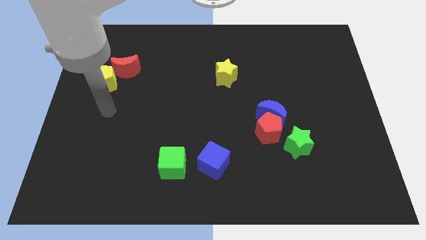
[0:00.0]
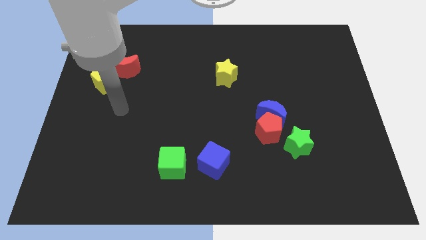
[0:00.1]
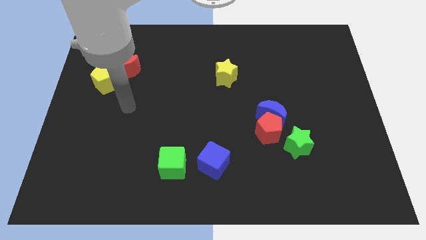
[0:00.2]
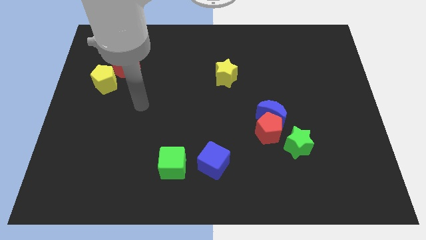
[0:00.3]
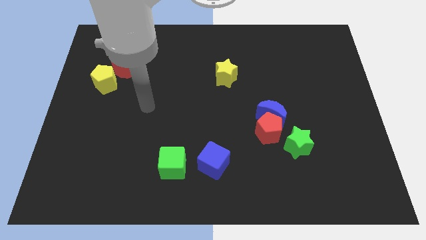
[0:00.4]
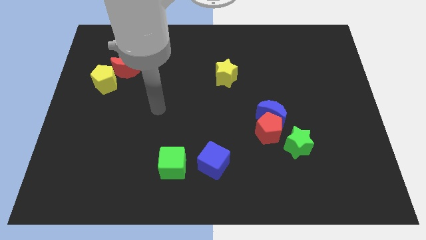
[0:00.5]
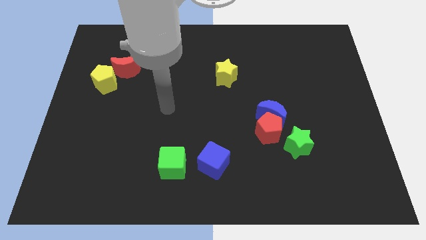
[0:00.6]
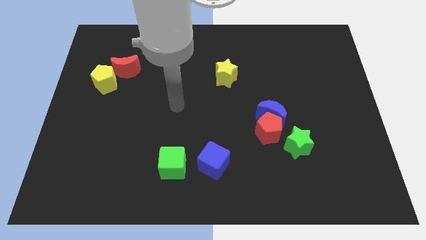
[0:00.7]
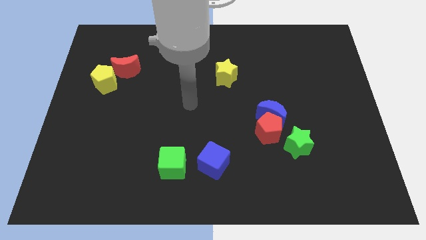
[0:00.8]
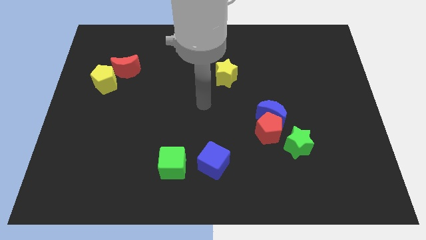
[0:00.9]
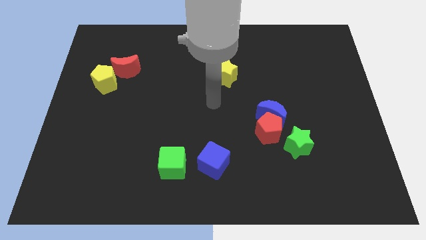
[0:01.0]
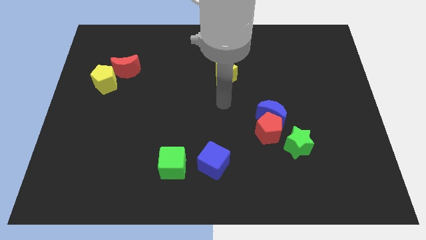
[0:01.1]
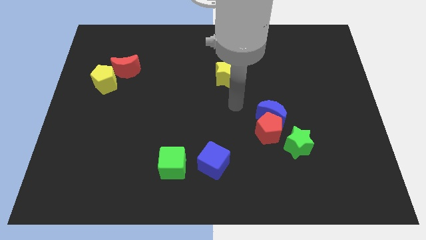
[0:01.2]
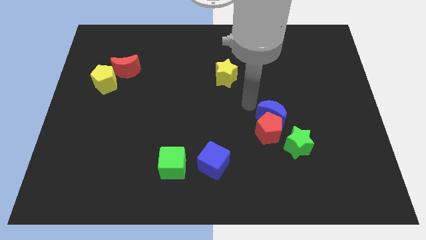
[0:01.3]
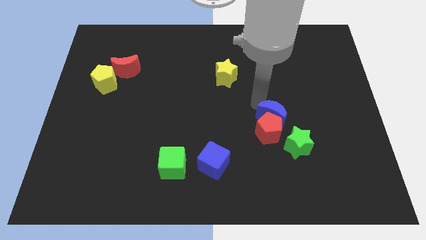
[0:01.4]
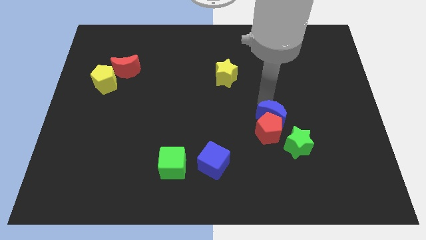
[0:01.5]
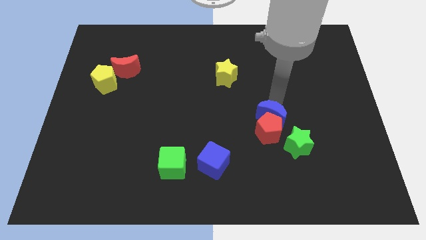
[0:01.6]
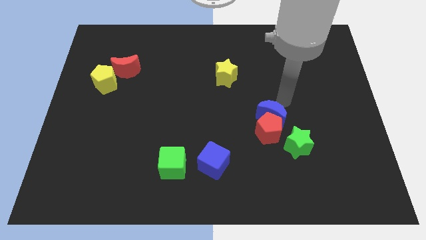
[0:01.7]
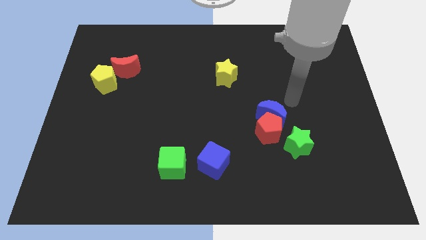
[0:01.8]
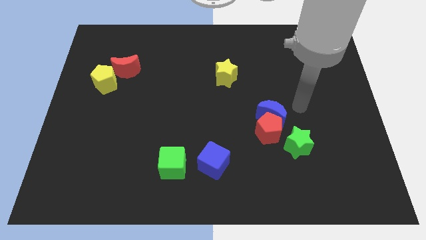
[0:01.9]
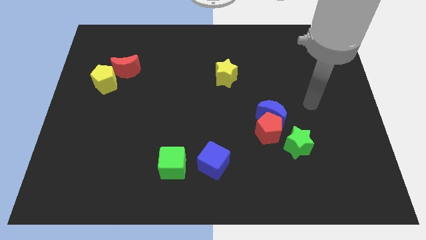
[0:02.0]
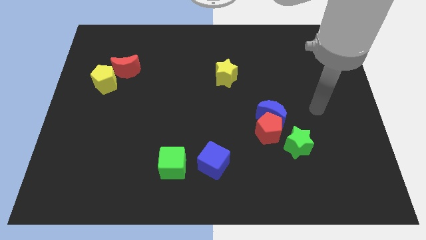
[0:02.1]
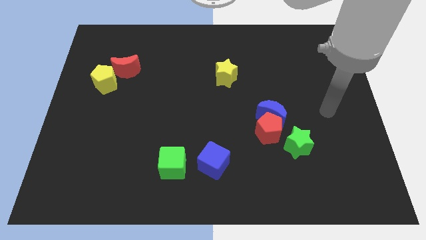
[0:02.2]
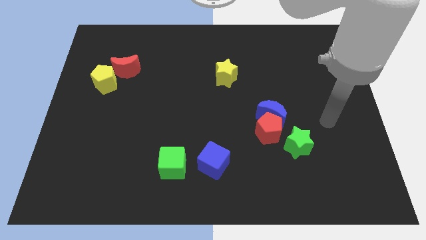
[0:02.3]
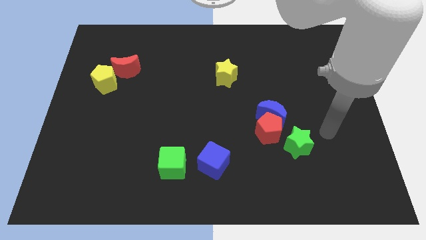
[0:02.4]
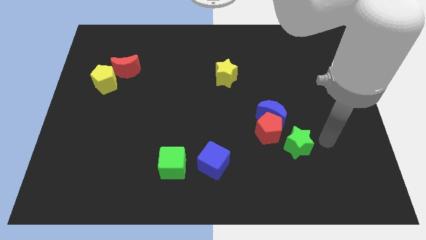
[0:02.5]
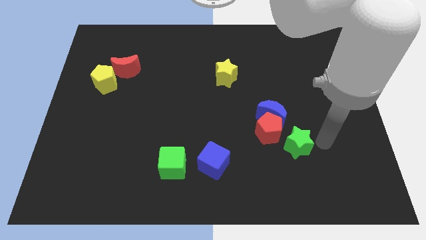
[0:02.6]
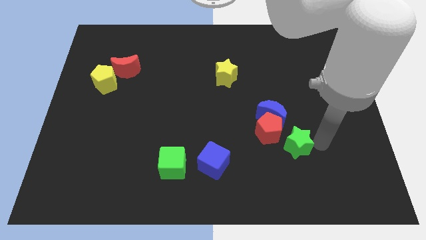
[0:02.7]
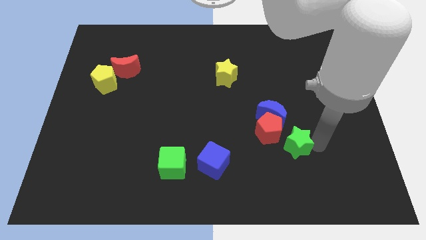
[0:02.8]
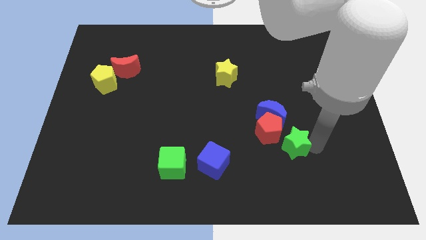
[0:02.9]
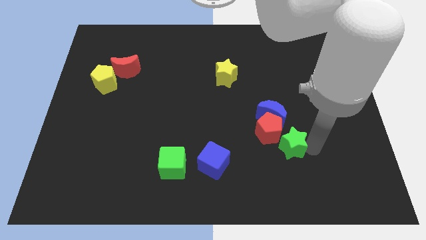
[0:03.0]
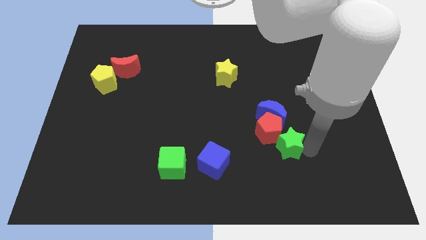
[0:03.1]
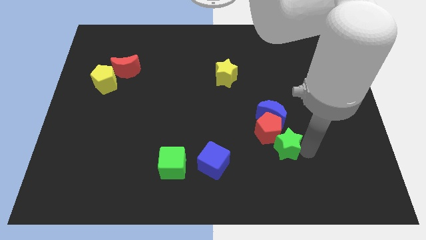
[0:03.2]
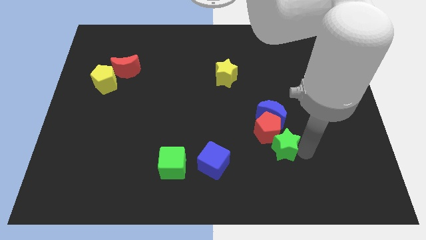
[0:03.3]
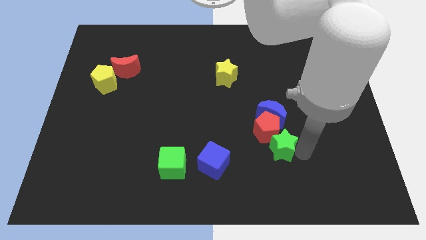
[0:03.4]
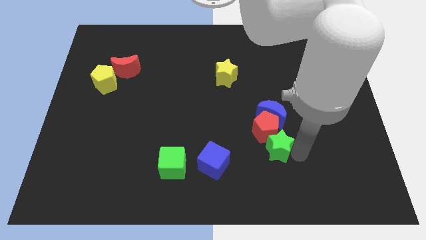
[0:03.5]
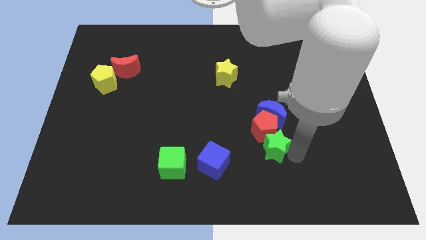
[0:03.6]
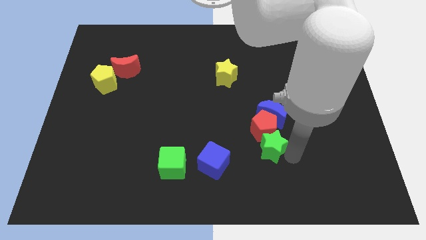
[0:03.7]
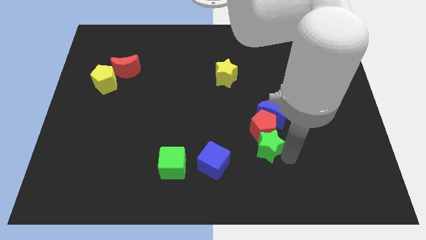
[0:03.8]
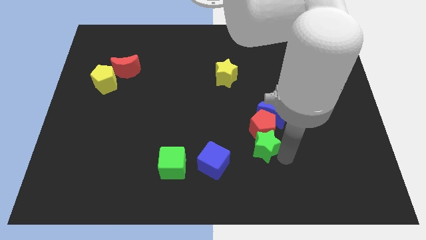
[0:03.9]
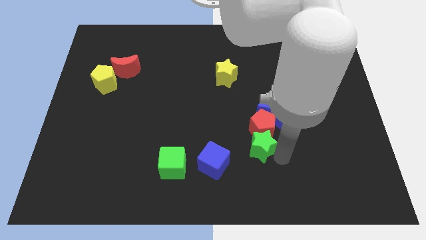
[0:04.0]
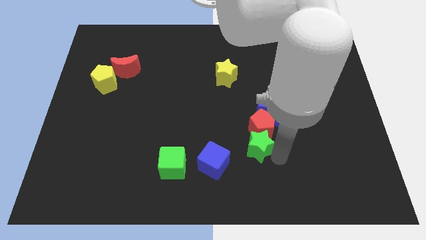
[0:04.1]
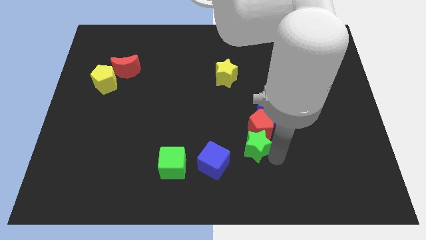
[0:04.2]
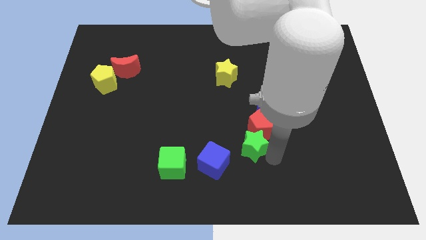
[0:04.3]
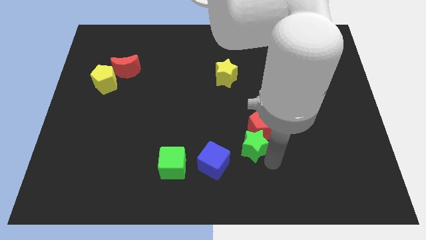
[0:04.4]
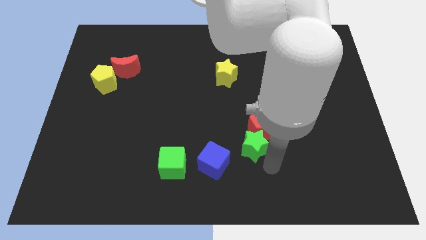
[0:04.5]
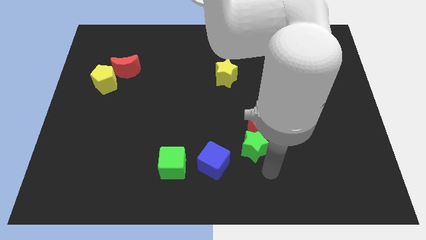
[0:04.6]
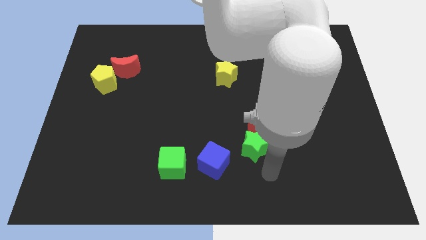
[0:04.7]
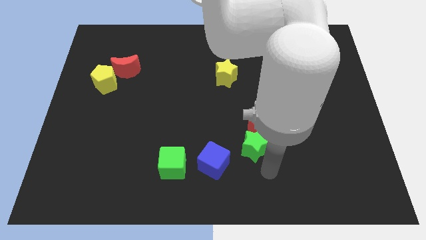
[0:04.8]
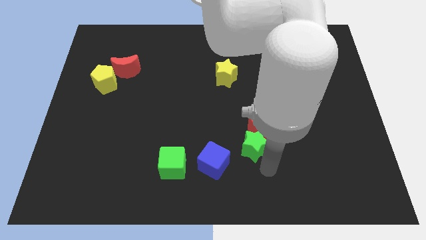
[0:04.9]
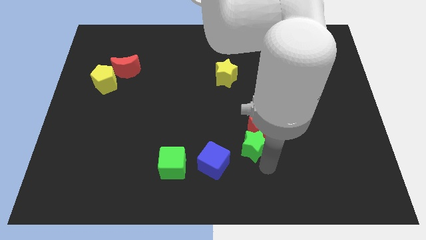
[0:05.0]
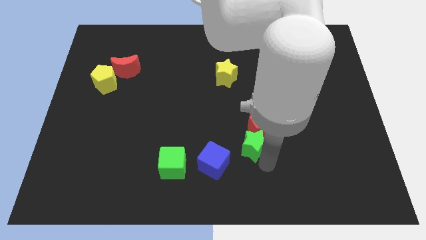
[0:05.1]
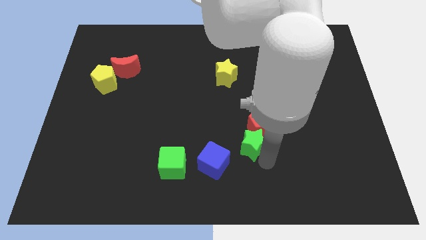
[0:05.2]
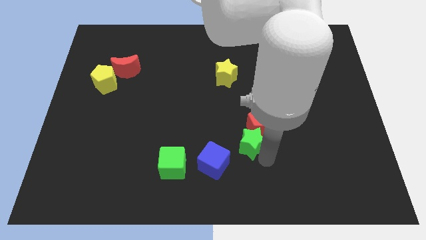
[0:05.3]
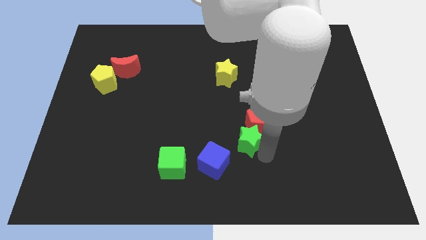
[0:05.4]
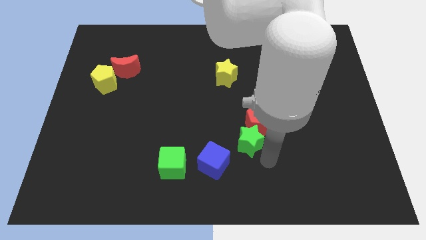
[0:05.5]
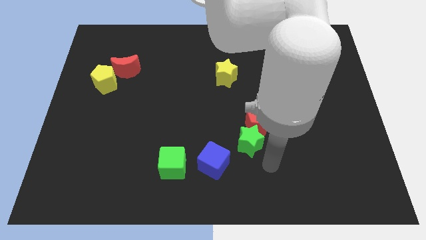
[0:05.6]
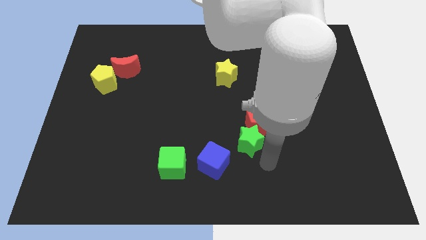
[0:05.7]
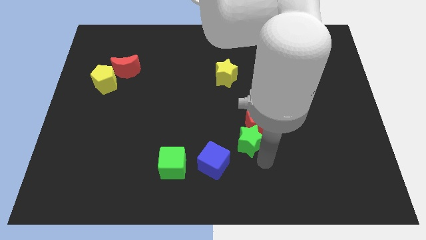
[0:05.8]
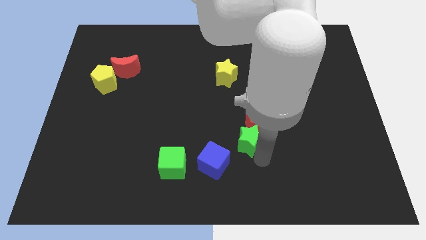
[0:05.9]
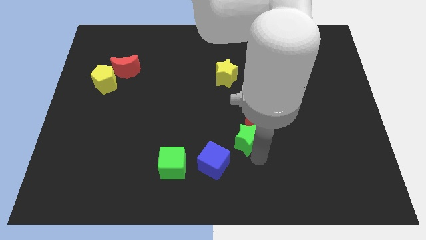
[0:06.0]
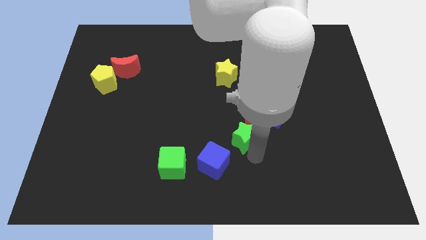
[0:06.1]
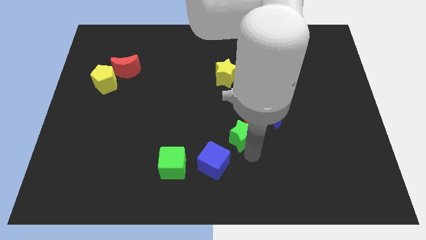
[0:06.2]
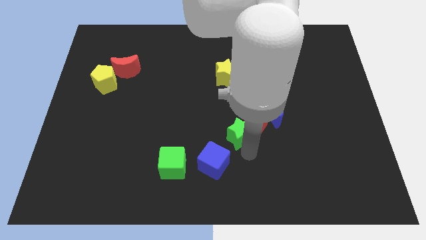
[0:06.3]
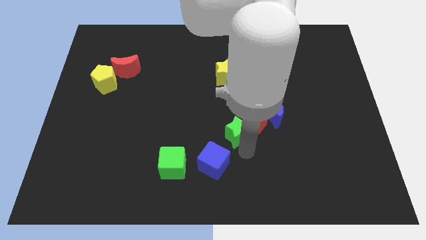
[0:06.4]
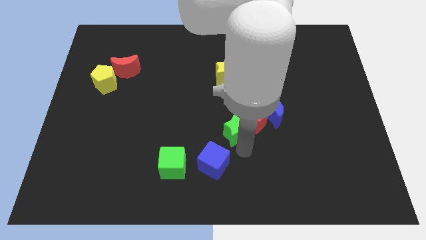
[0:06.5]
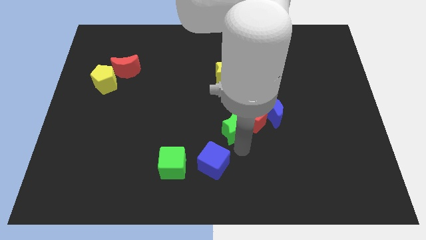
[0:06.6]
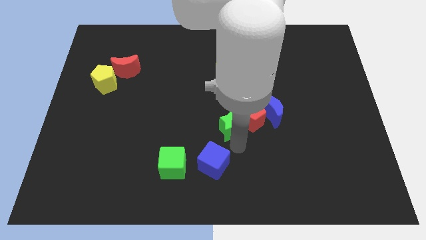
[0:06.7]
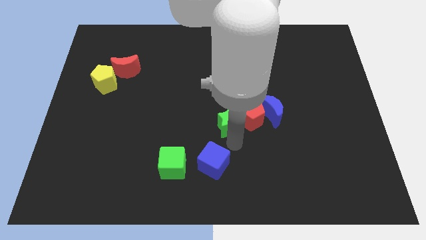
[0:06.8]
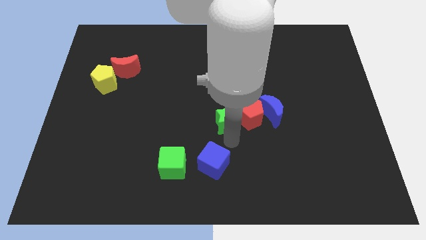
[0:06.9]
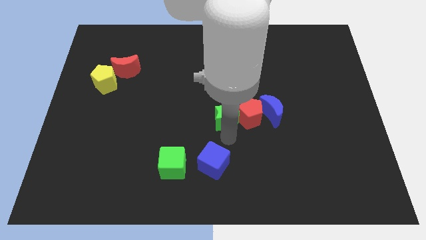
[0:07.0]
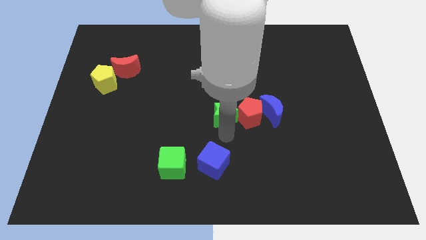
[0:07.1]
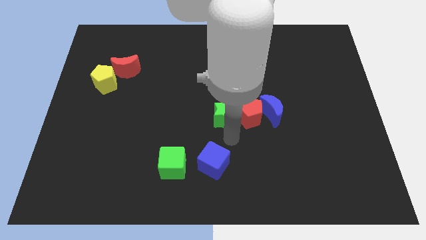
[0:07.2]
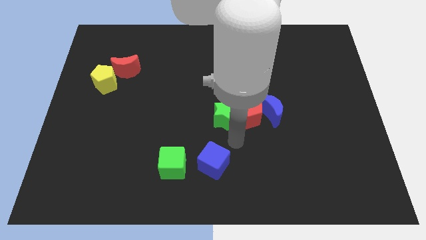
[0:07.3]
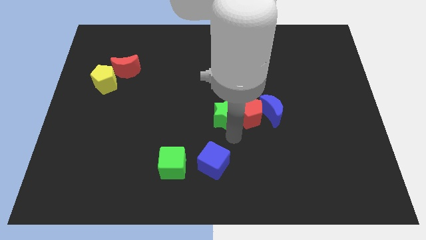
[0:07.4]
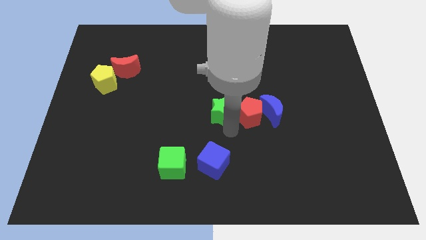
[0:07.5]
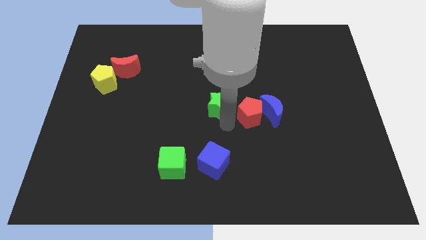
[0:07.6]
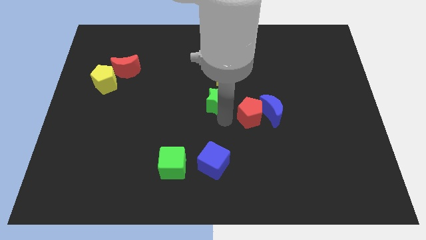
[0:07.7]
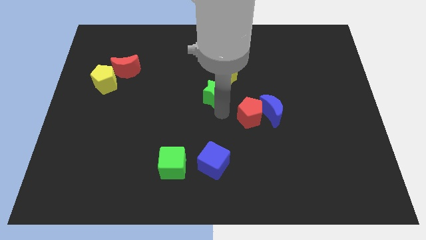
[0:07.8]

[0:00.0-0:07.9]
slide the green star upwards and then left
